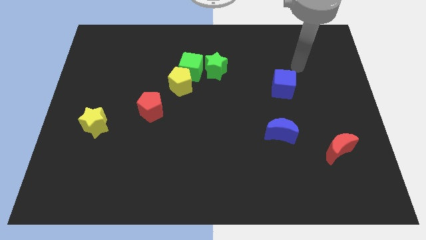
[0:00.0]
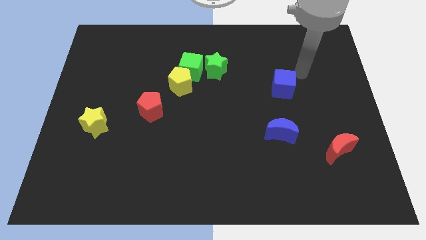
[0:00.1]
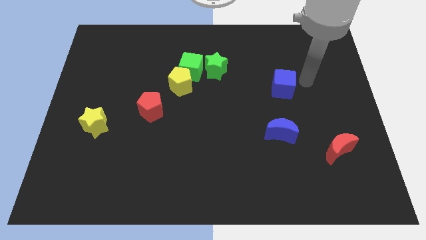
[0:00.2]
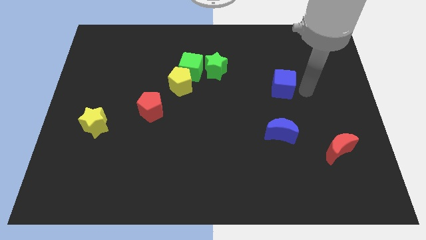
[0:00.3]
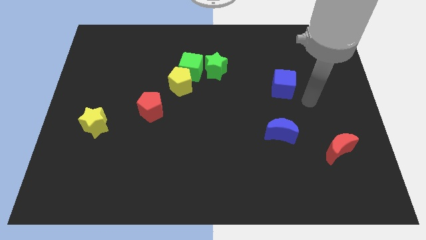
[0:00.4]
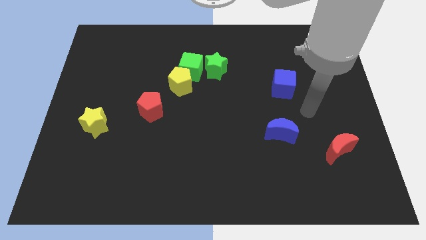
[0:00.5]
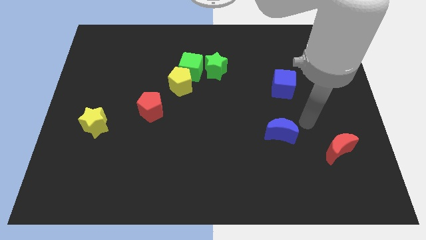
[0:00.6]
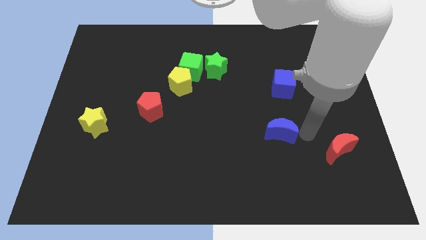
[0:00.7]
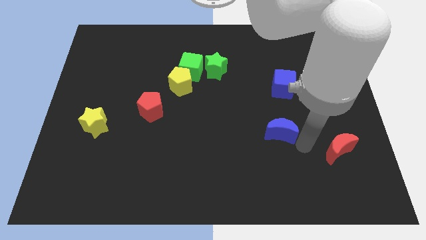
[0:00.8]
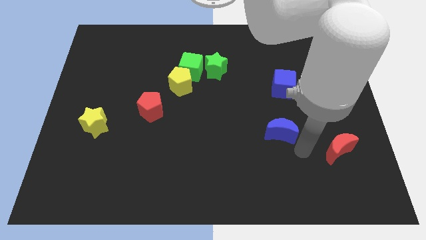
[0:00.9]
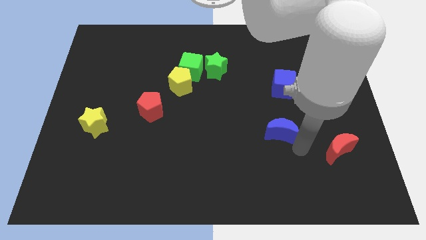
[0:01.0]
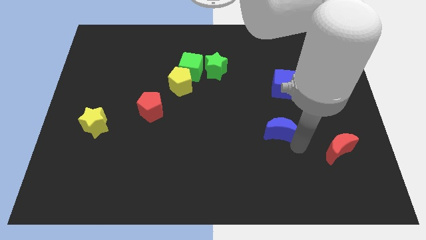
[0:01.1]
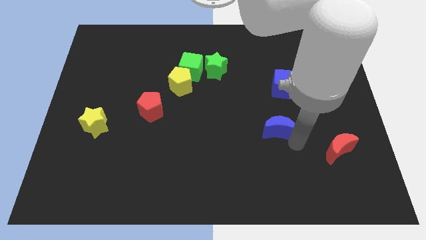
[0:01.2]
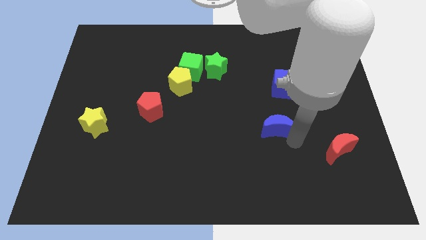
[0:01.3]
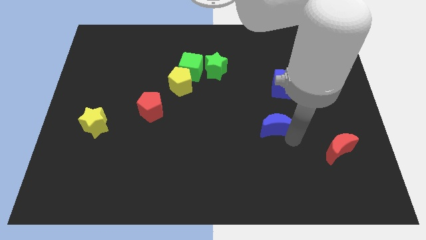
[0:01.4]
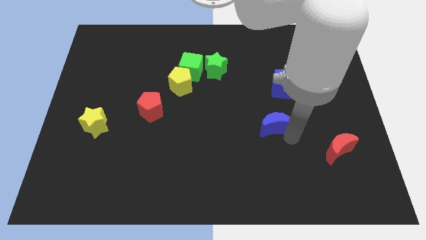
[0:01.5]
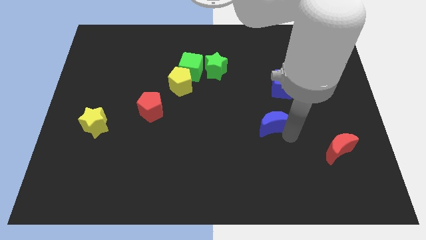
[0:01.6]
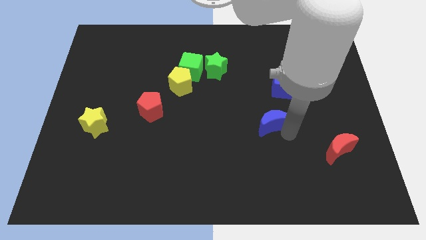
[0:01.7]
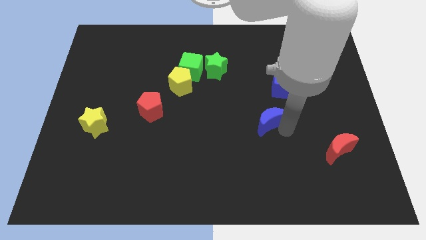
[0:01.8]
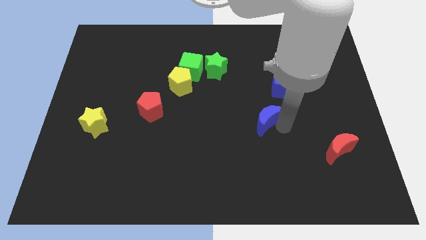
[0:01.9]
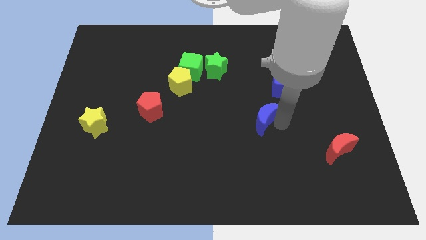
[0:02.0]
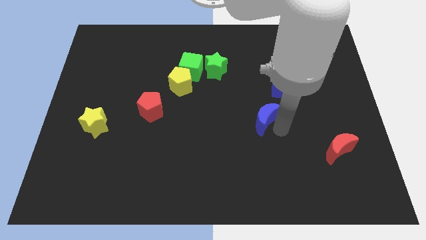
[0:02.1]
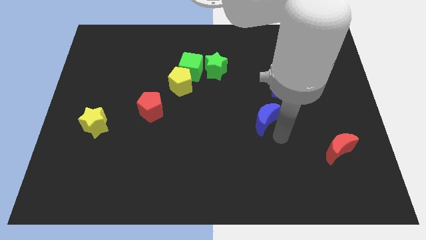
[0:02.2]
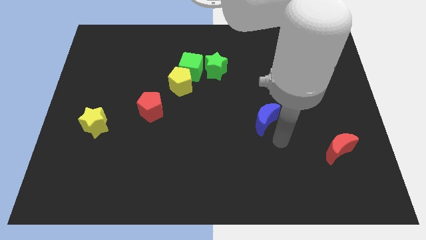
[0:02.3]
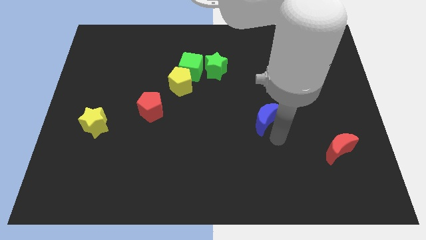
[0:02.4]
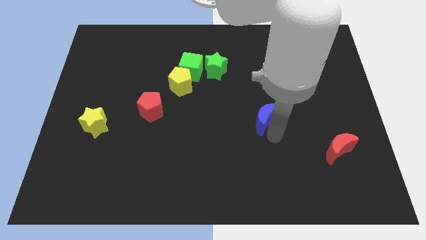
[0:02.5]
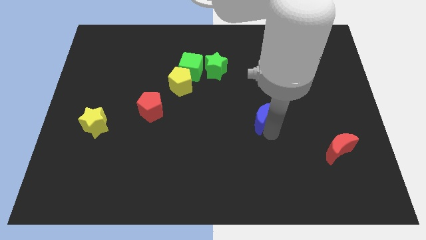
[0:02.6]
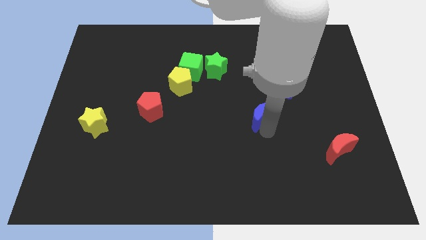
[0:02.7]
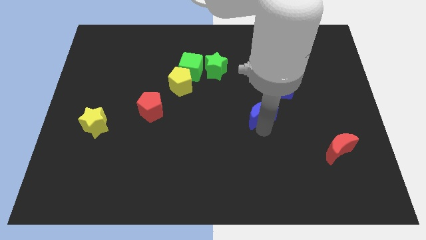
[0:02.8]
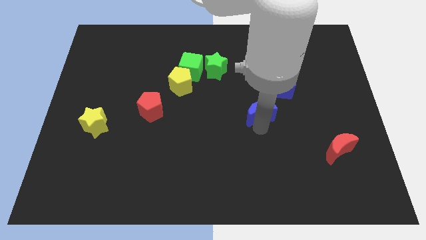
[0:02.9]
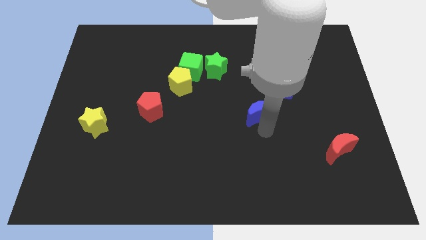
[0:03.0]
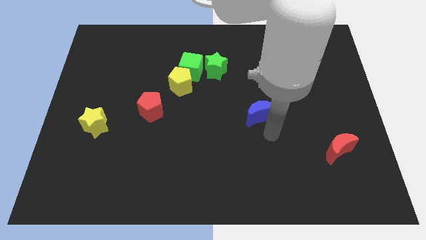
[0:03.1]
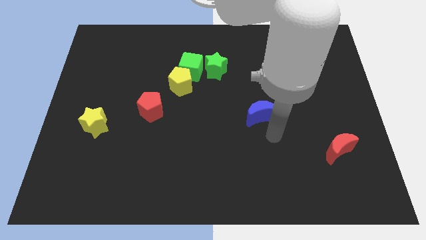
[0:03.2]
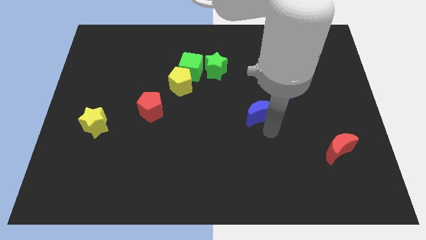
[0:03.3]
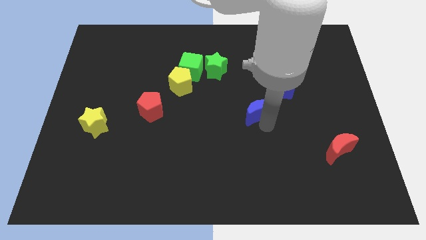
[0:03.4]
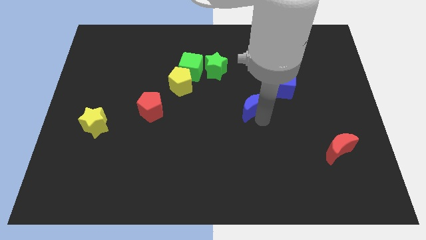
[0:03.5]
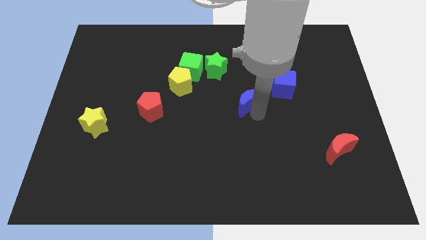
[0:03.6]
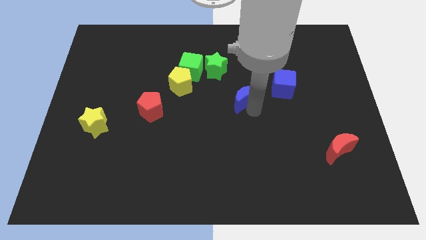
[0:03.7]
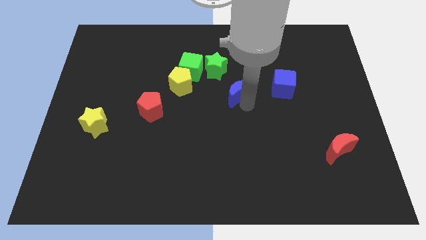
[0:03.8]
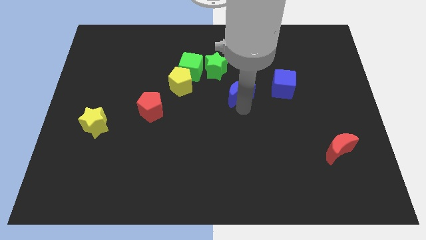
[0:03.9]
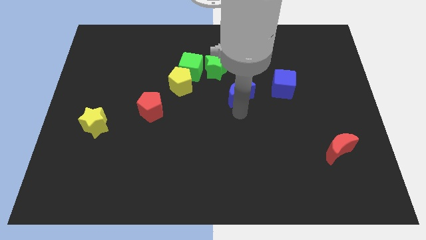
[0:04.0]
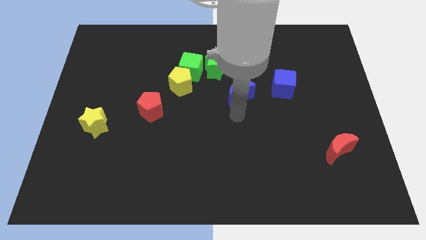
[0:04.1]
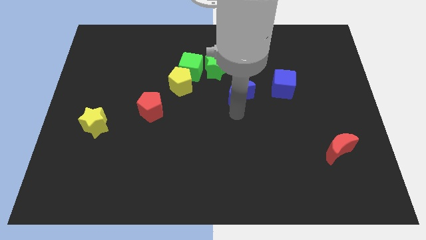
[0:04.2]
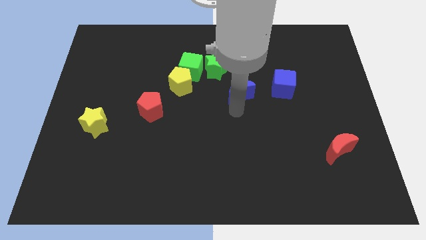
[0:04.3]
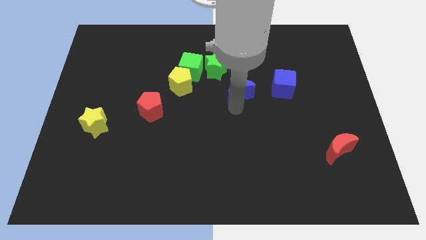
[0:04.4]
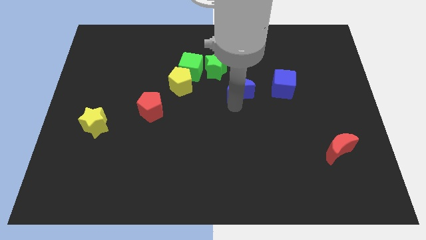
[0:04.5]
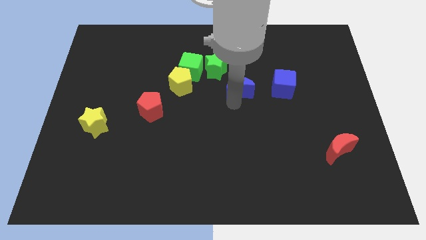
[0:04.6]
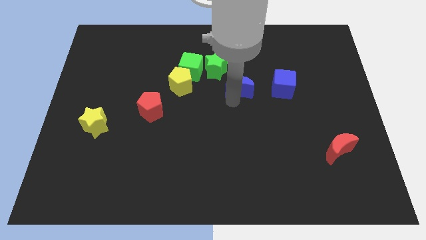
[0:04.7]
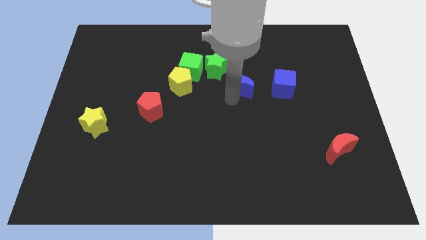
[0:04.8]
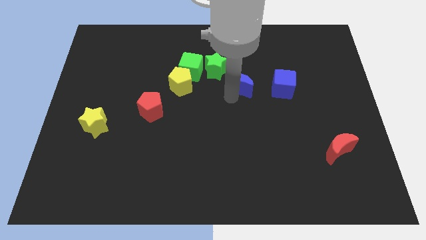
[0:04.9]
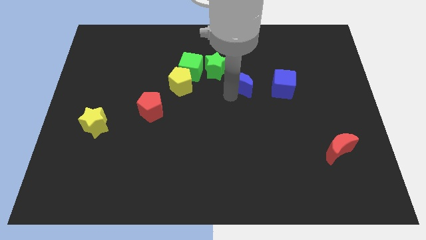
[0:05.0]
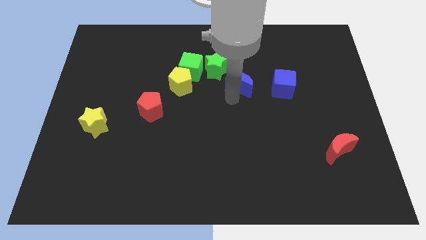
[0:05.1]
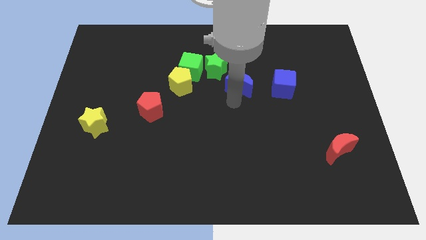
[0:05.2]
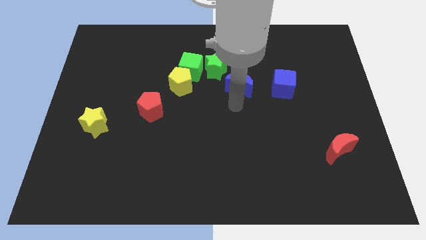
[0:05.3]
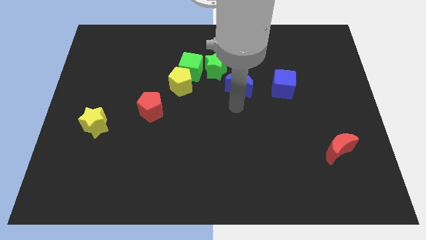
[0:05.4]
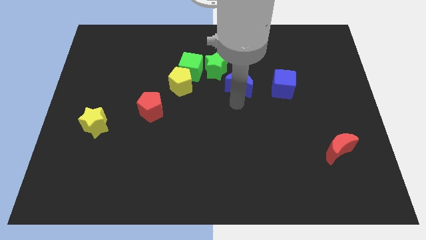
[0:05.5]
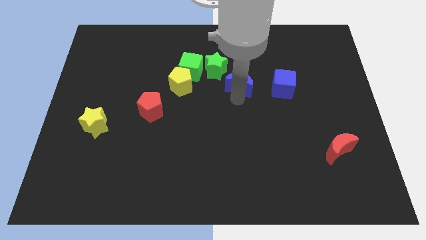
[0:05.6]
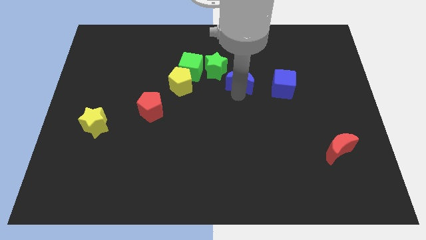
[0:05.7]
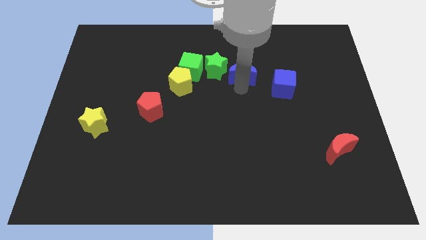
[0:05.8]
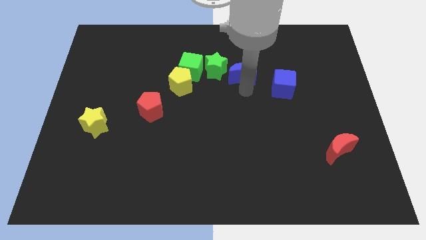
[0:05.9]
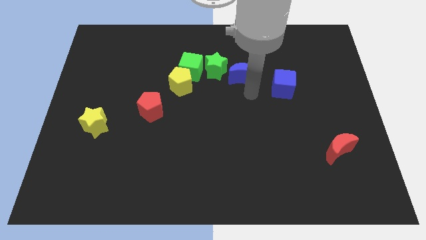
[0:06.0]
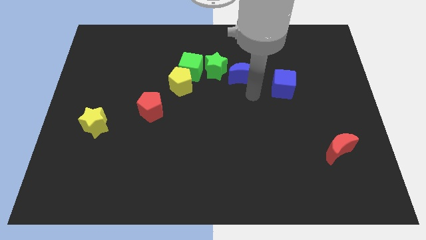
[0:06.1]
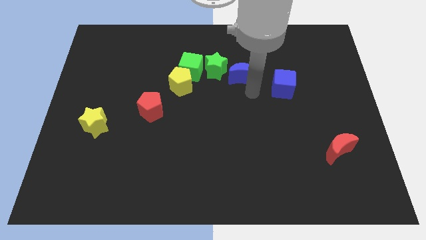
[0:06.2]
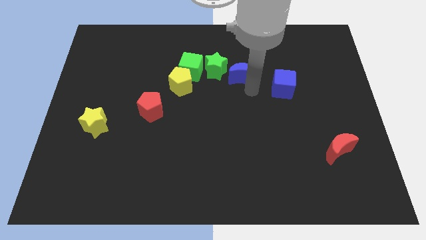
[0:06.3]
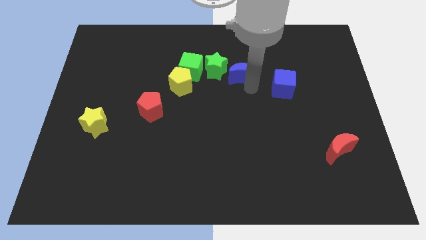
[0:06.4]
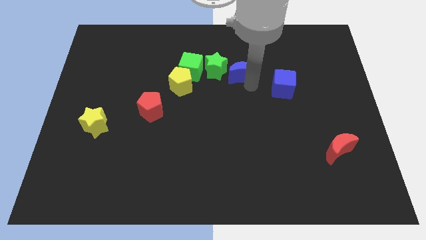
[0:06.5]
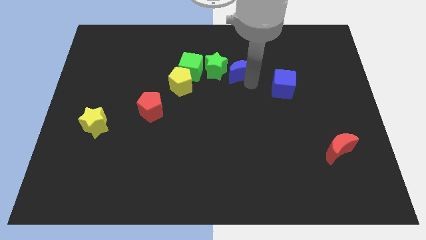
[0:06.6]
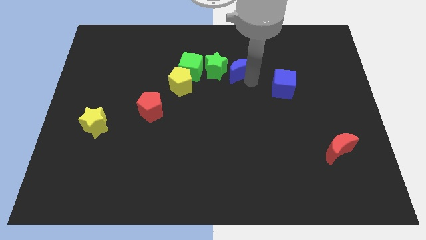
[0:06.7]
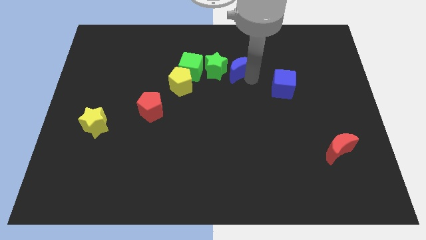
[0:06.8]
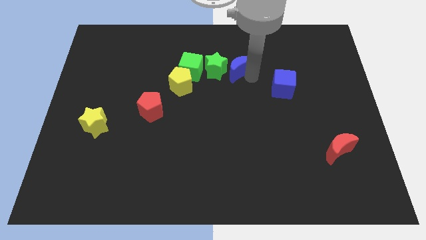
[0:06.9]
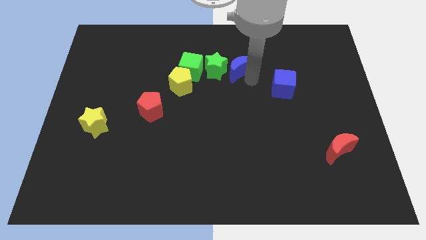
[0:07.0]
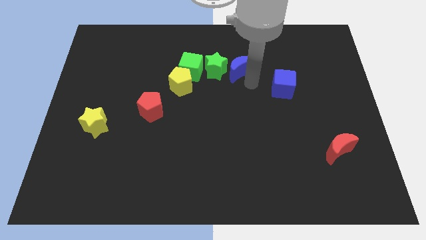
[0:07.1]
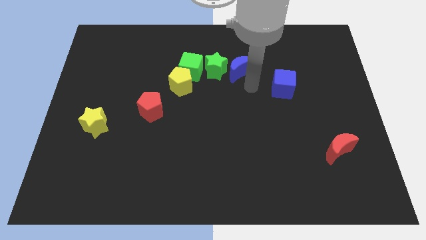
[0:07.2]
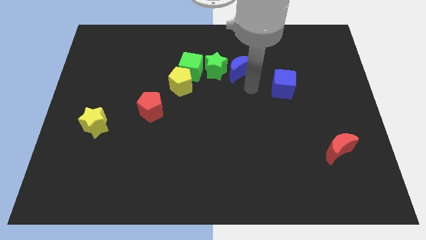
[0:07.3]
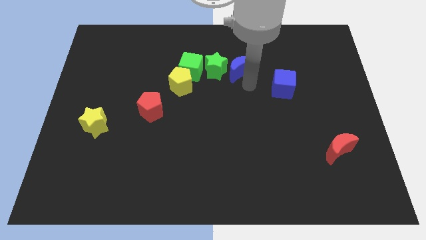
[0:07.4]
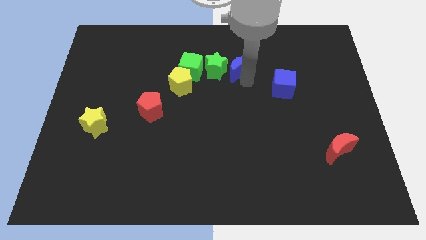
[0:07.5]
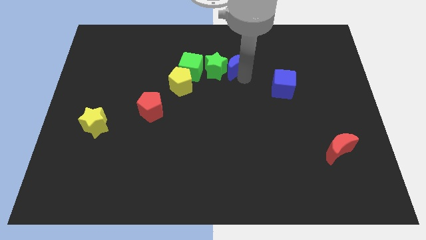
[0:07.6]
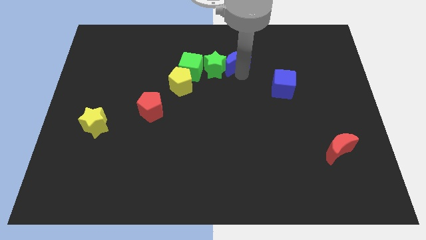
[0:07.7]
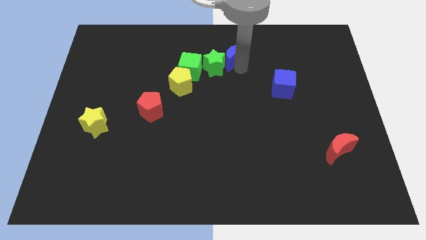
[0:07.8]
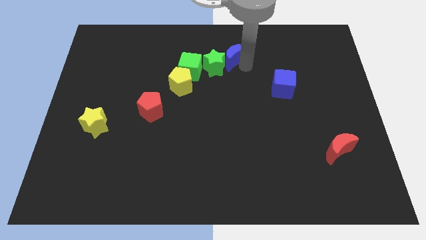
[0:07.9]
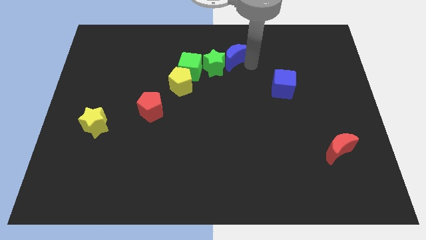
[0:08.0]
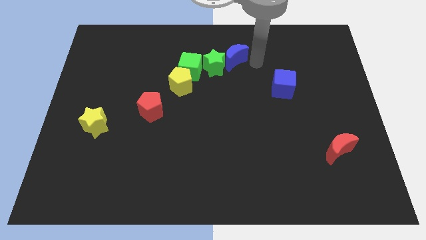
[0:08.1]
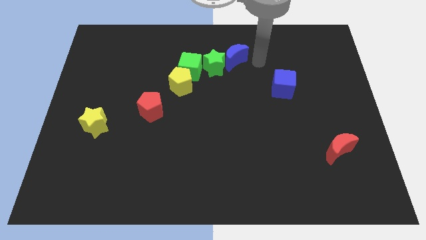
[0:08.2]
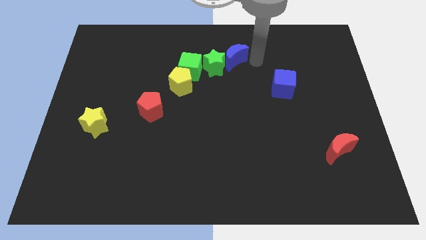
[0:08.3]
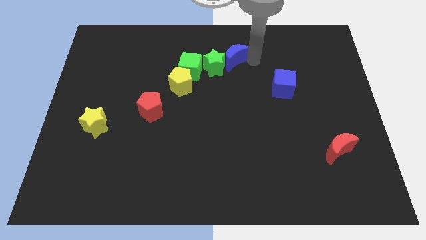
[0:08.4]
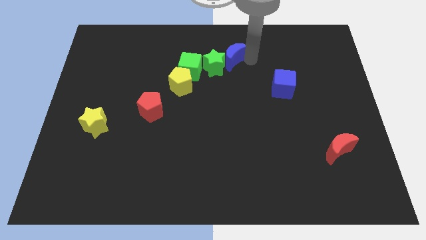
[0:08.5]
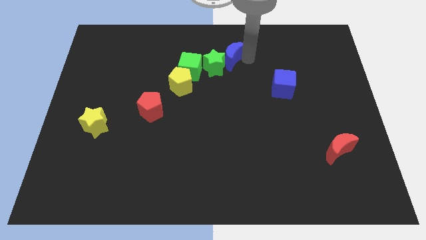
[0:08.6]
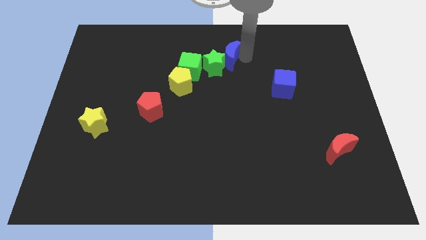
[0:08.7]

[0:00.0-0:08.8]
slide the blue moon upwards and to the left diagonally
